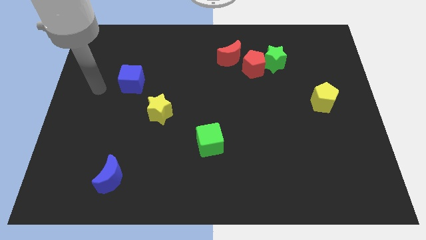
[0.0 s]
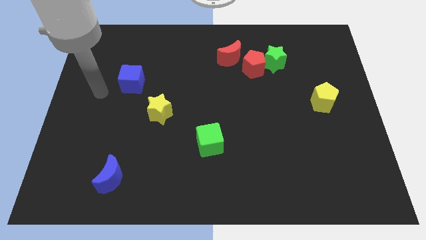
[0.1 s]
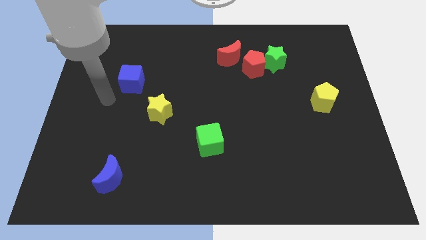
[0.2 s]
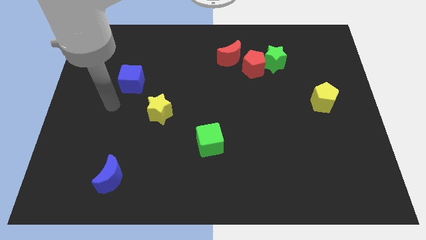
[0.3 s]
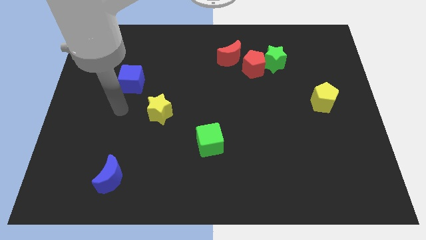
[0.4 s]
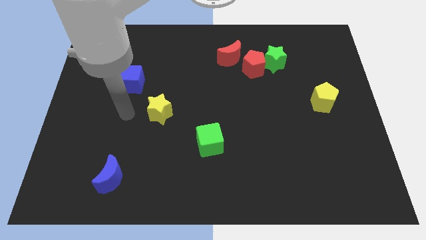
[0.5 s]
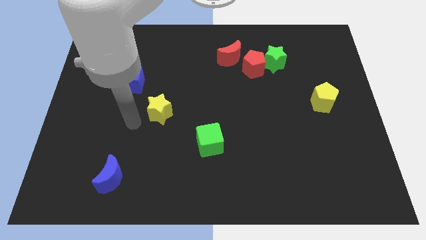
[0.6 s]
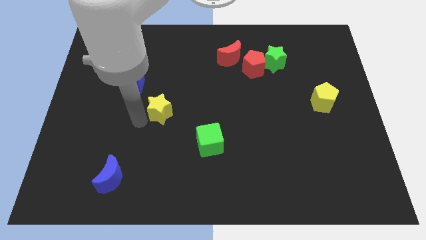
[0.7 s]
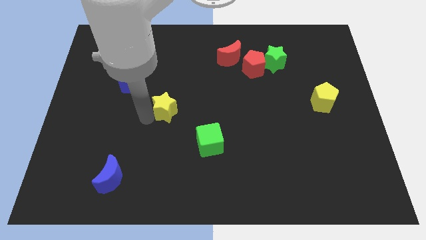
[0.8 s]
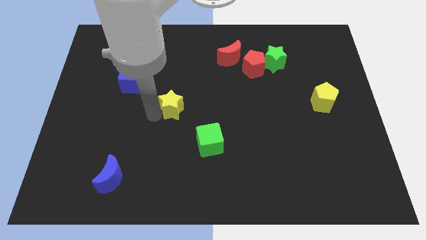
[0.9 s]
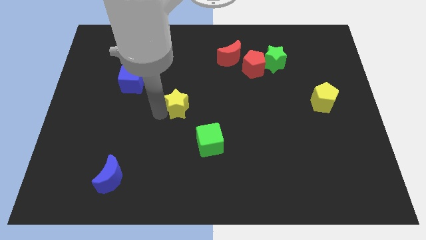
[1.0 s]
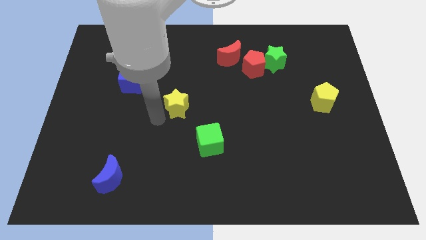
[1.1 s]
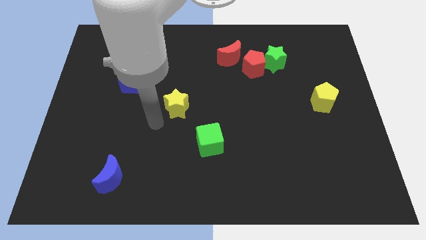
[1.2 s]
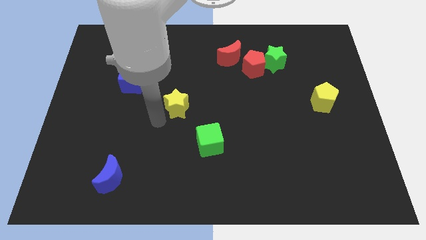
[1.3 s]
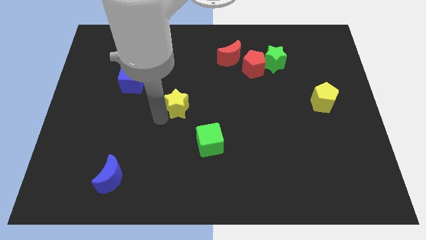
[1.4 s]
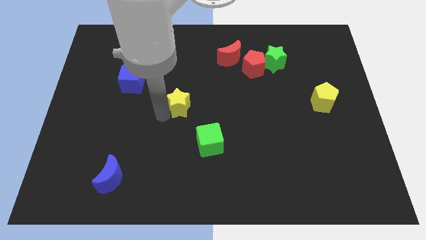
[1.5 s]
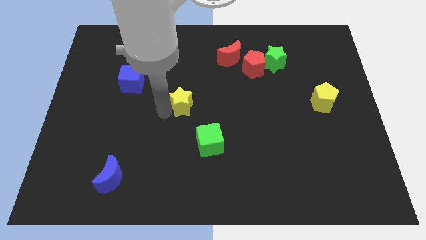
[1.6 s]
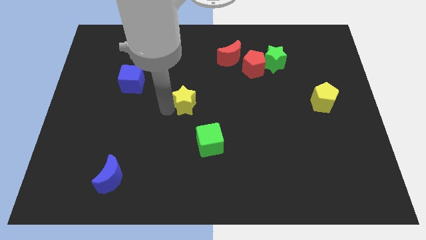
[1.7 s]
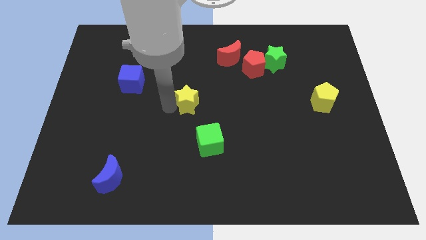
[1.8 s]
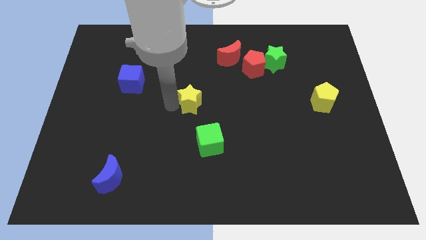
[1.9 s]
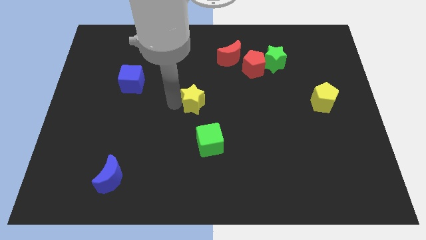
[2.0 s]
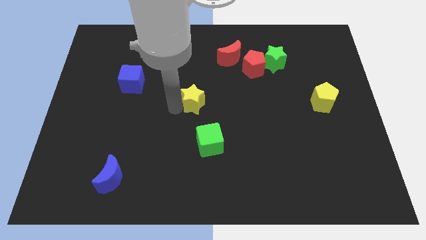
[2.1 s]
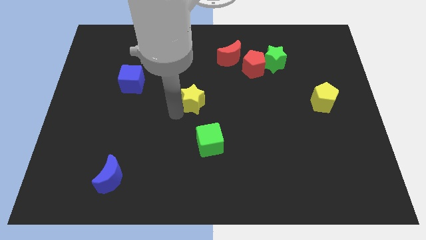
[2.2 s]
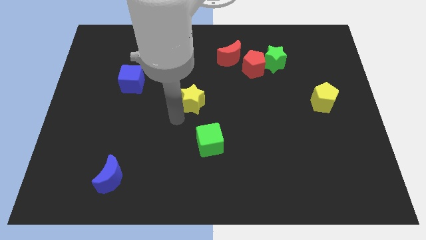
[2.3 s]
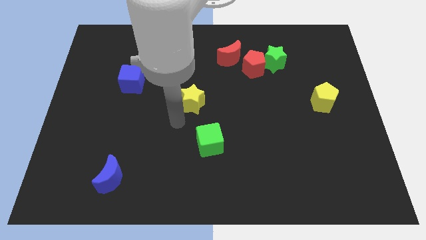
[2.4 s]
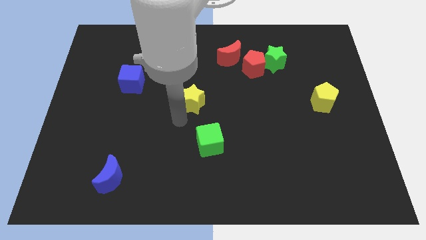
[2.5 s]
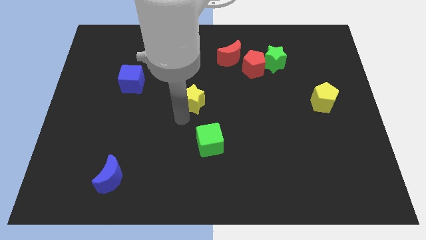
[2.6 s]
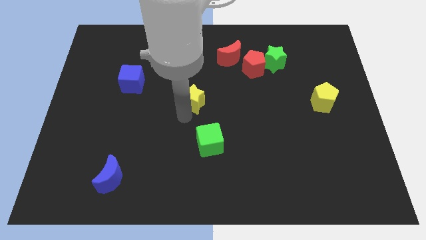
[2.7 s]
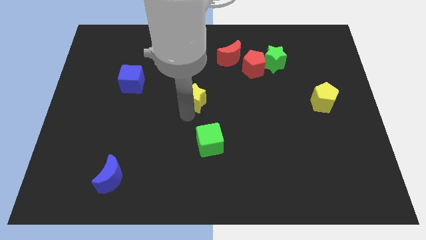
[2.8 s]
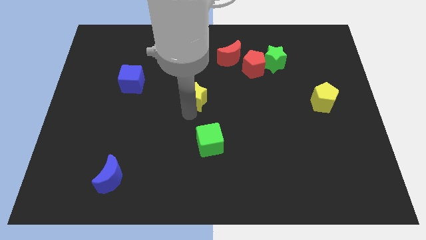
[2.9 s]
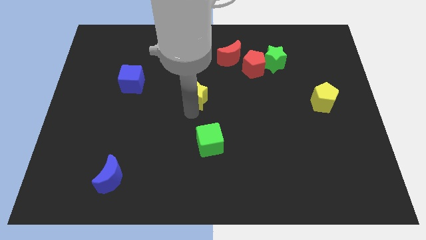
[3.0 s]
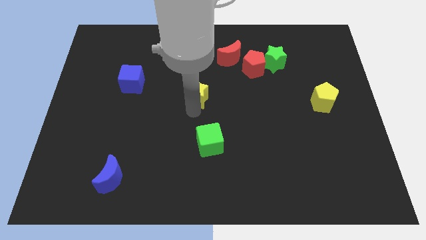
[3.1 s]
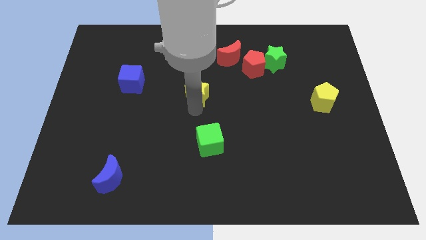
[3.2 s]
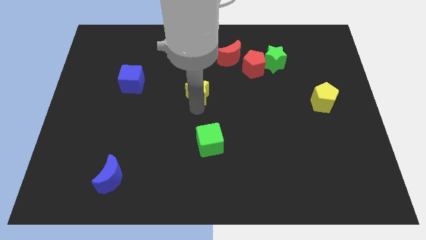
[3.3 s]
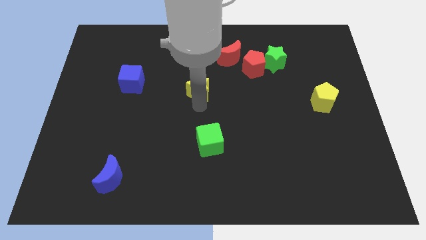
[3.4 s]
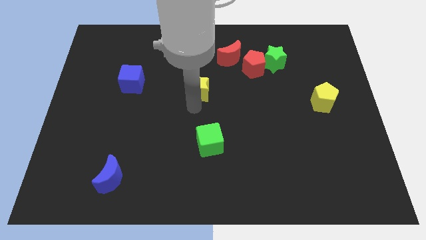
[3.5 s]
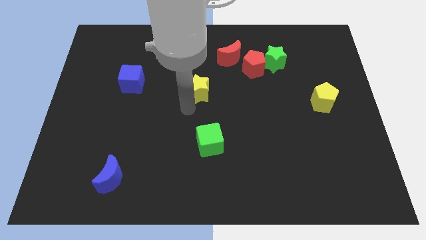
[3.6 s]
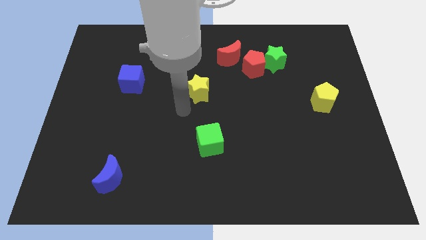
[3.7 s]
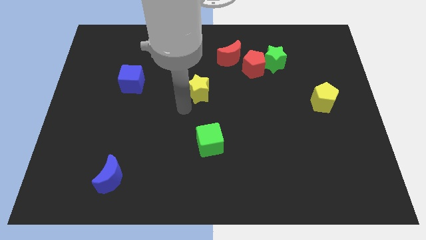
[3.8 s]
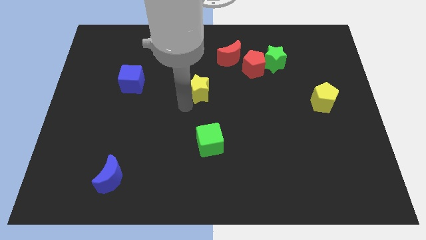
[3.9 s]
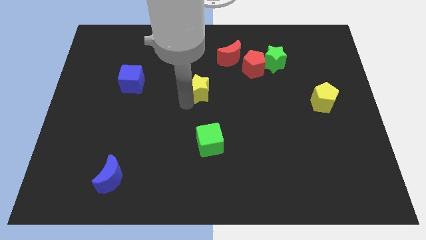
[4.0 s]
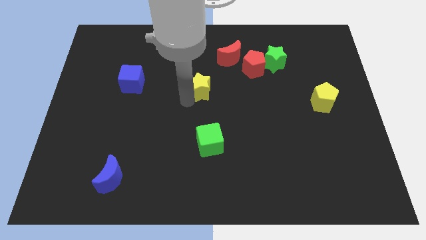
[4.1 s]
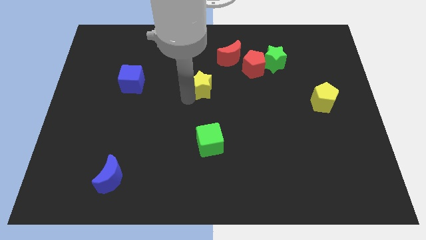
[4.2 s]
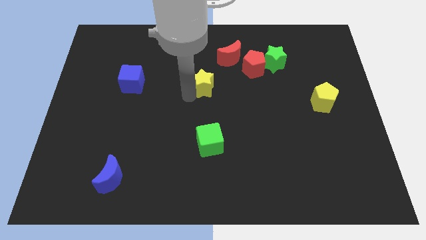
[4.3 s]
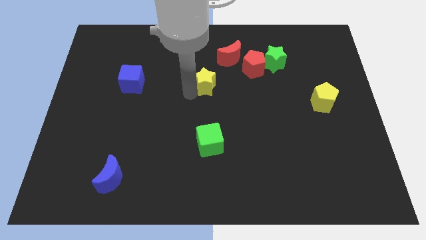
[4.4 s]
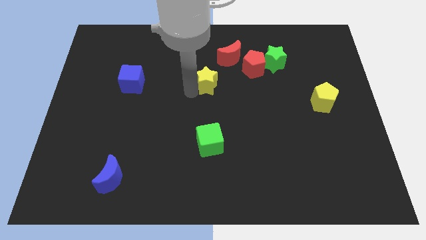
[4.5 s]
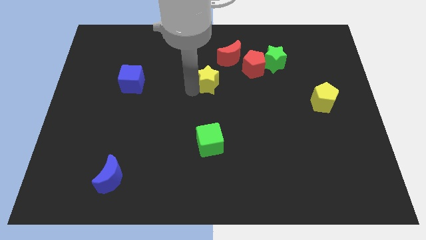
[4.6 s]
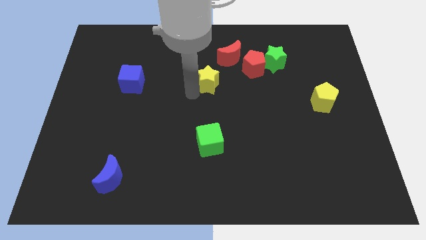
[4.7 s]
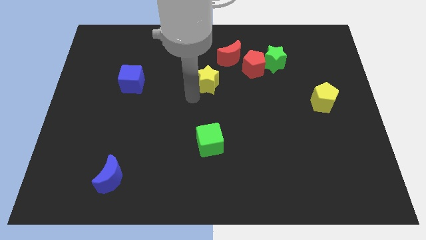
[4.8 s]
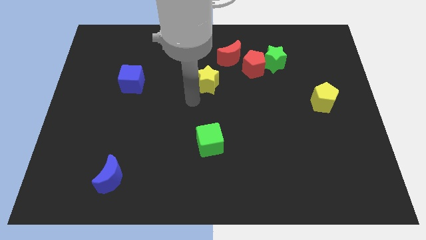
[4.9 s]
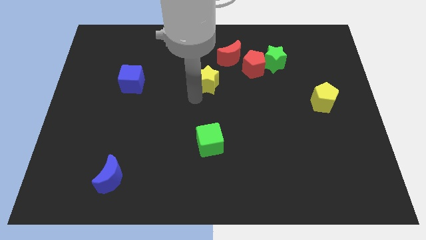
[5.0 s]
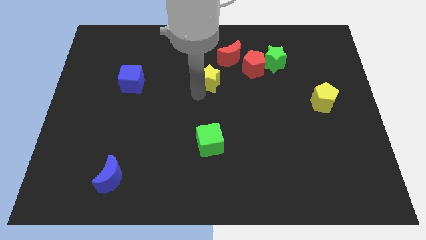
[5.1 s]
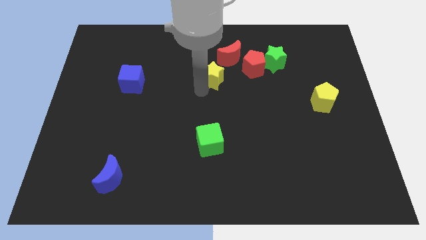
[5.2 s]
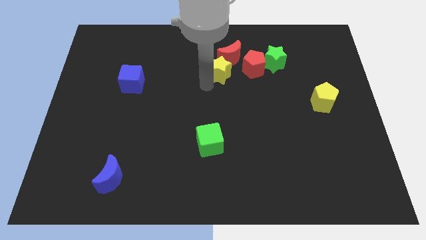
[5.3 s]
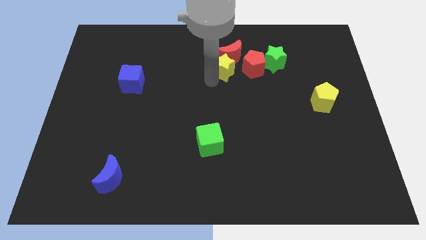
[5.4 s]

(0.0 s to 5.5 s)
slide the yellow star towards the red moon

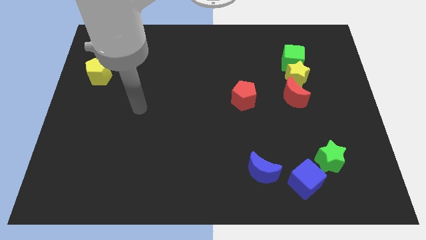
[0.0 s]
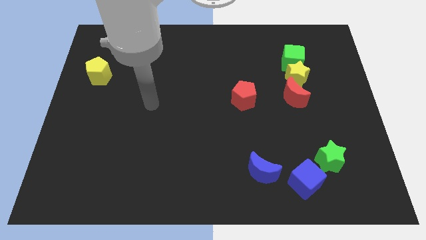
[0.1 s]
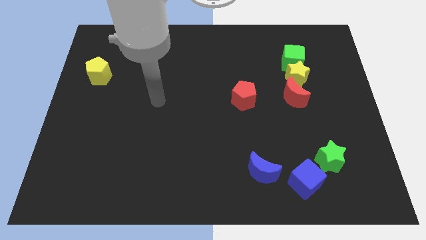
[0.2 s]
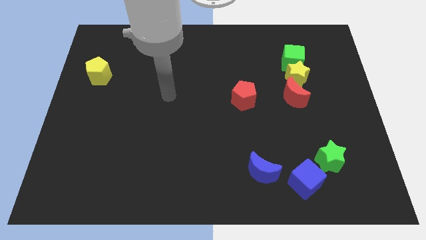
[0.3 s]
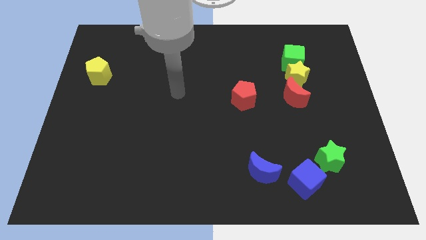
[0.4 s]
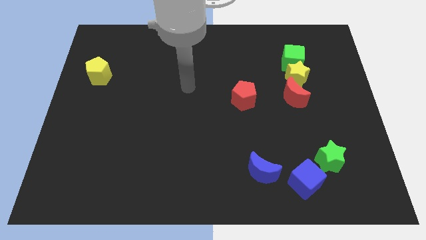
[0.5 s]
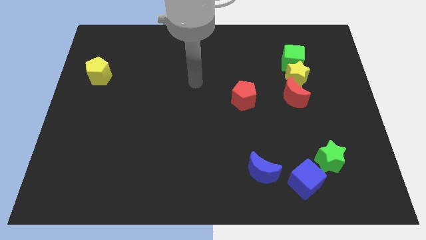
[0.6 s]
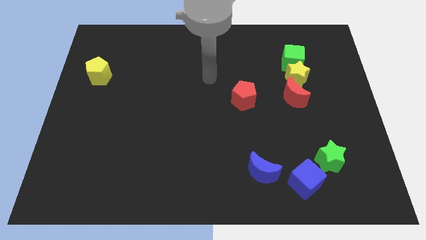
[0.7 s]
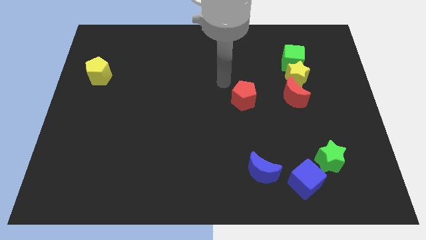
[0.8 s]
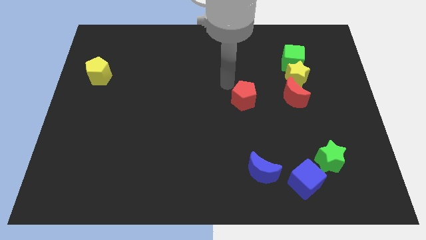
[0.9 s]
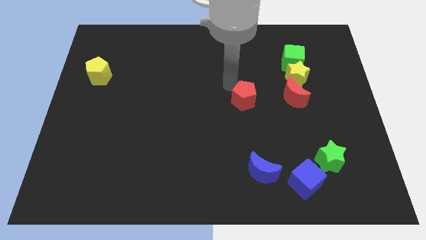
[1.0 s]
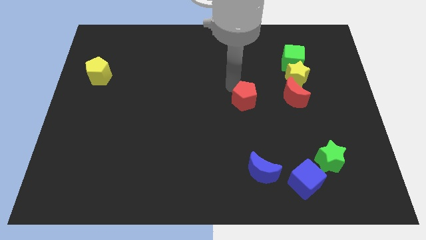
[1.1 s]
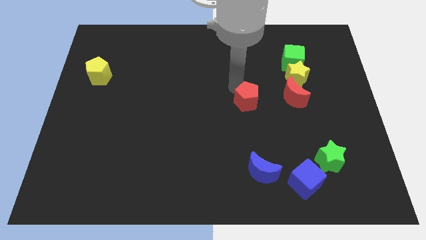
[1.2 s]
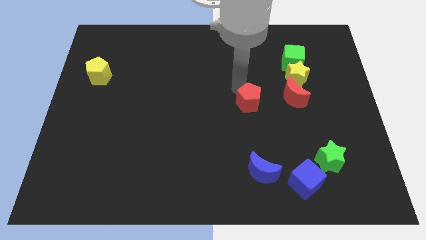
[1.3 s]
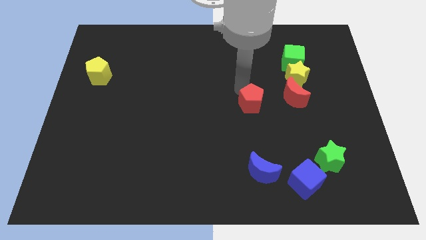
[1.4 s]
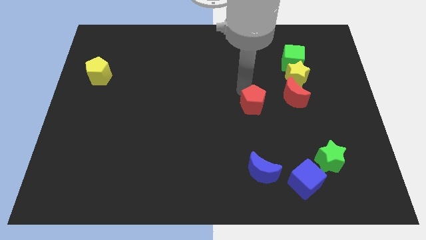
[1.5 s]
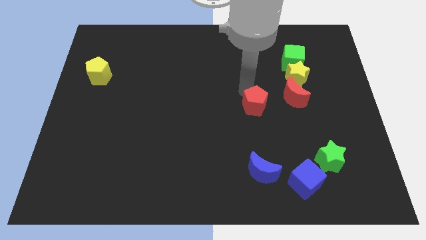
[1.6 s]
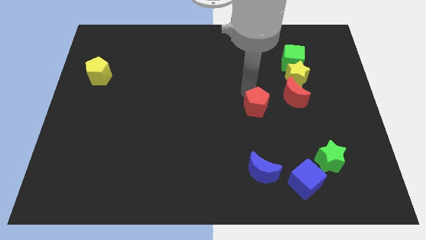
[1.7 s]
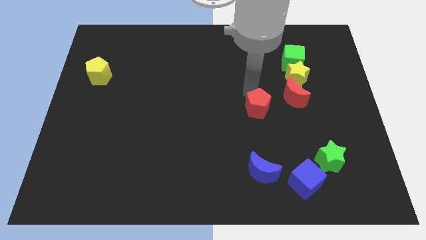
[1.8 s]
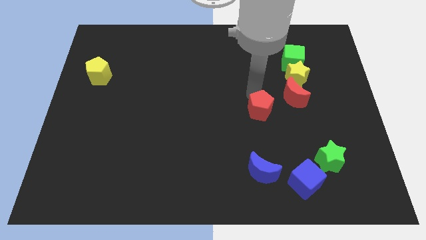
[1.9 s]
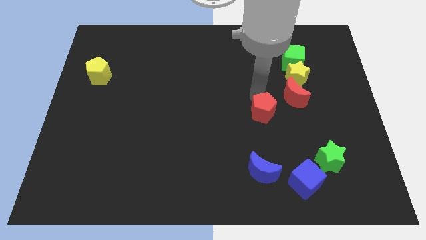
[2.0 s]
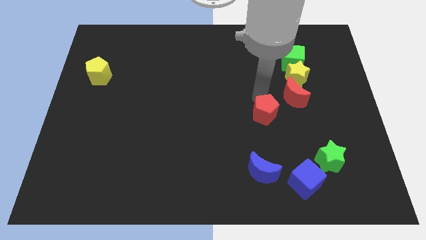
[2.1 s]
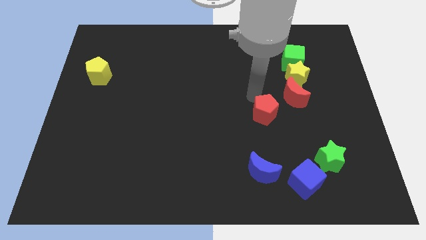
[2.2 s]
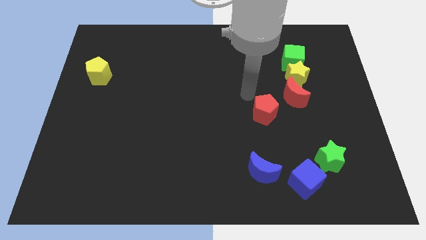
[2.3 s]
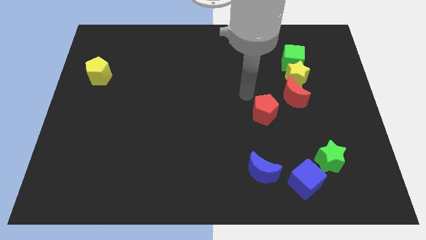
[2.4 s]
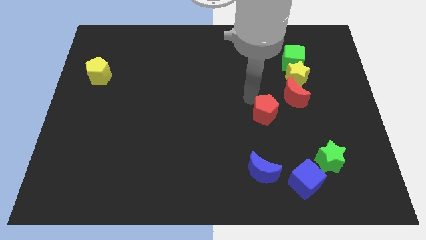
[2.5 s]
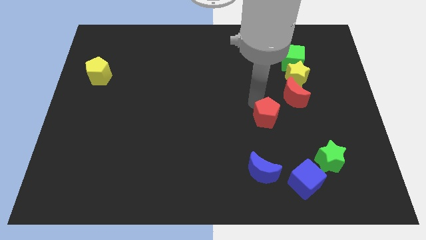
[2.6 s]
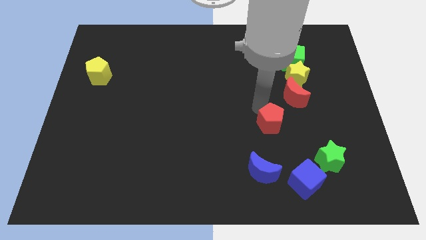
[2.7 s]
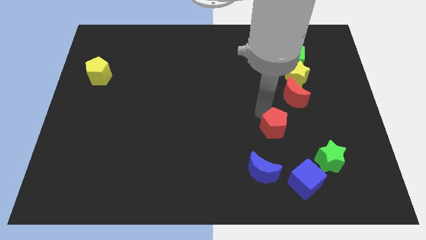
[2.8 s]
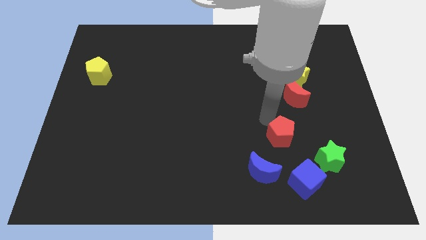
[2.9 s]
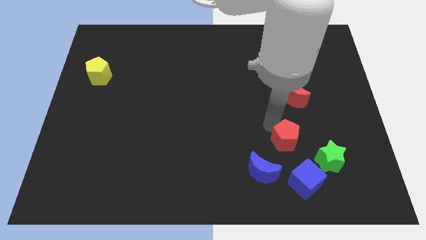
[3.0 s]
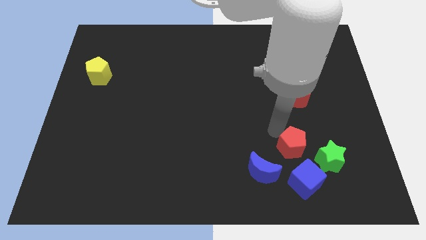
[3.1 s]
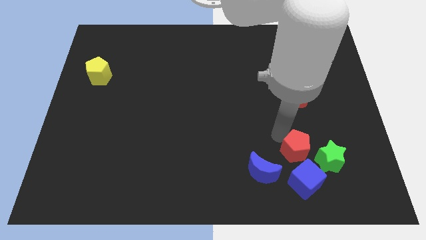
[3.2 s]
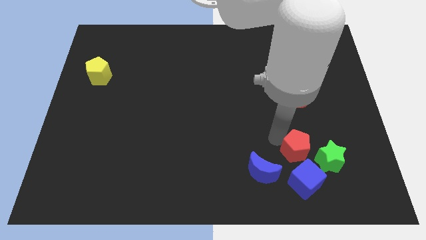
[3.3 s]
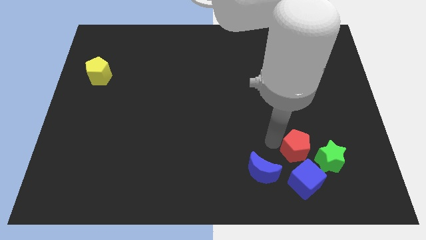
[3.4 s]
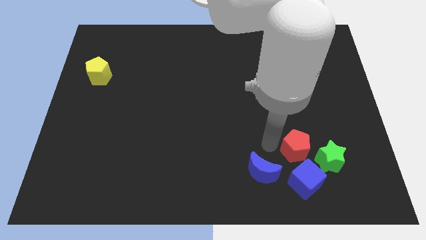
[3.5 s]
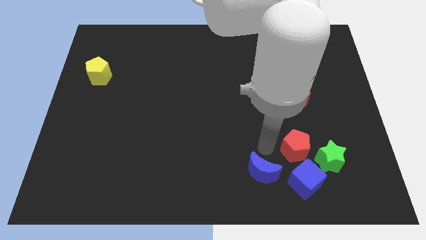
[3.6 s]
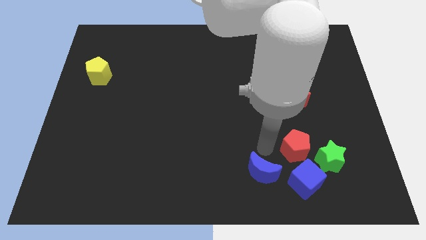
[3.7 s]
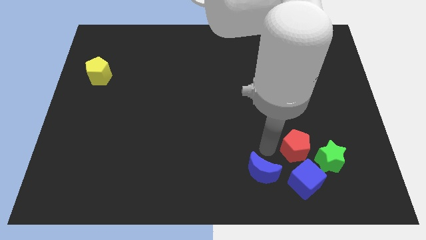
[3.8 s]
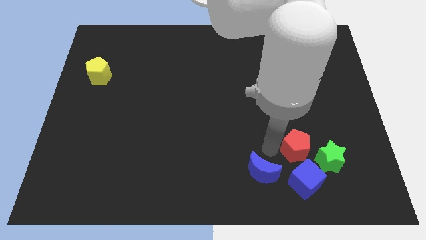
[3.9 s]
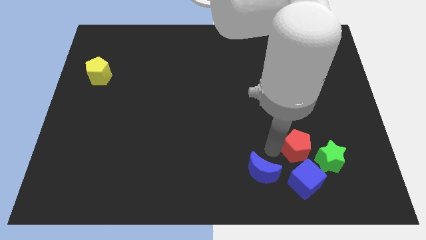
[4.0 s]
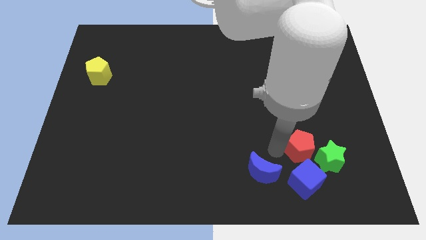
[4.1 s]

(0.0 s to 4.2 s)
push the red pentagon to the green star
